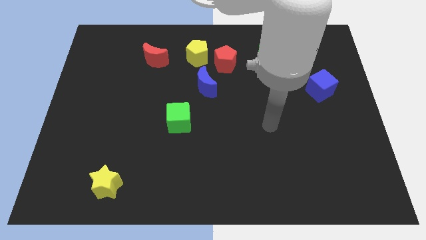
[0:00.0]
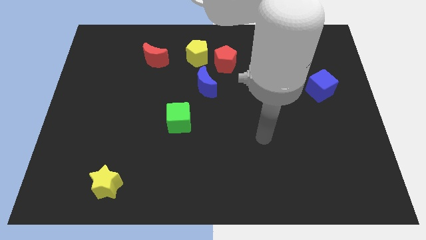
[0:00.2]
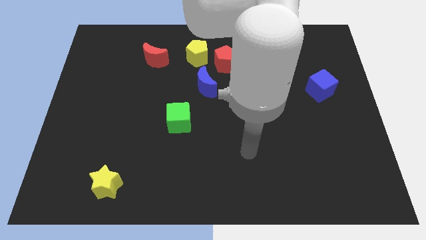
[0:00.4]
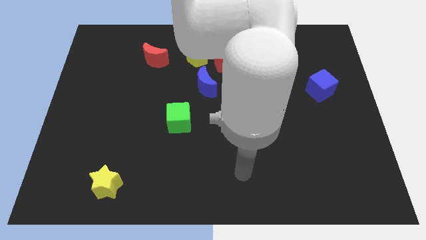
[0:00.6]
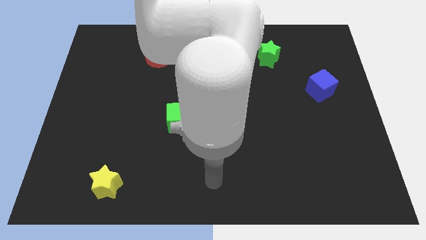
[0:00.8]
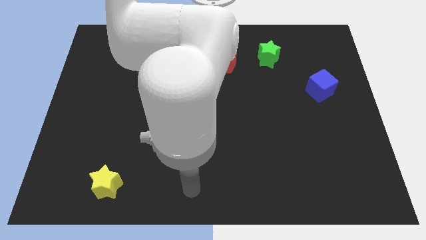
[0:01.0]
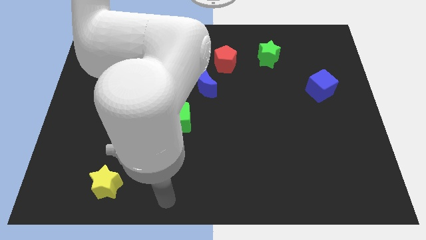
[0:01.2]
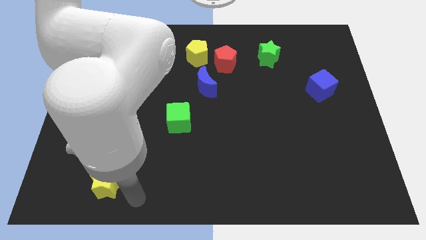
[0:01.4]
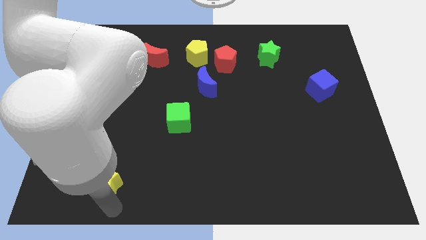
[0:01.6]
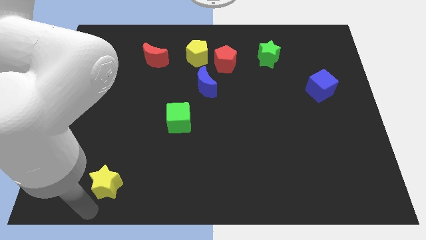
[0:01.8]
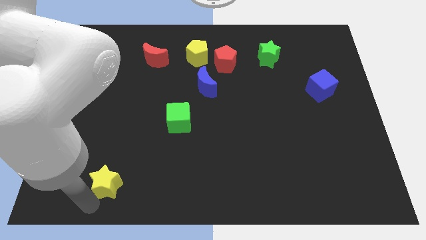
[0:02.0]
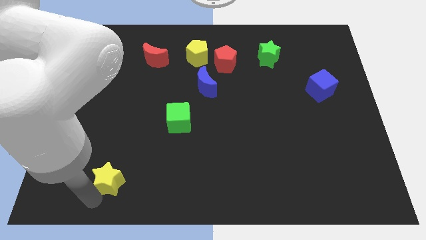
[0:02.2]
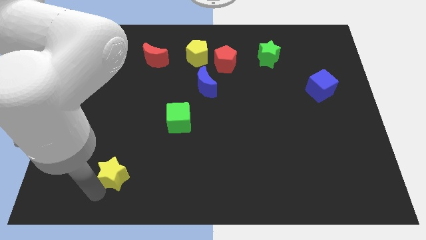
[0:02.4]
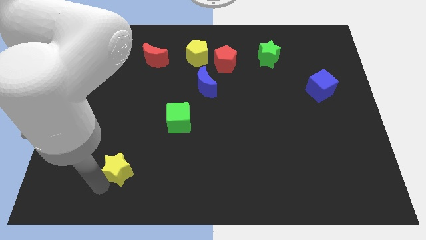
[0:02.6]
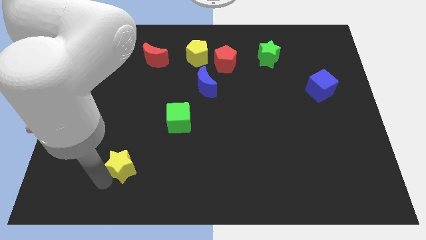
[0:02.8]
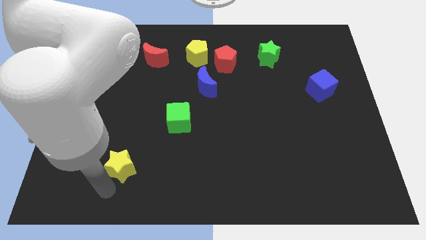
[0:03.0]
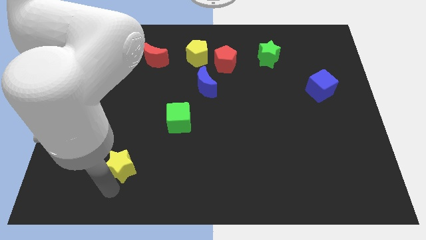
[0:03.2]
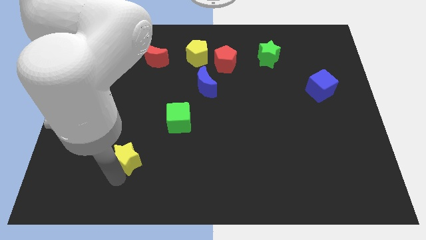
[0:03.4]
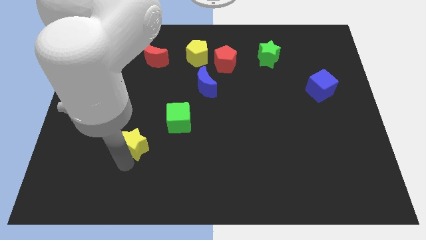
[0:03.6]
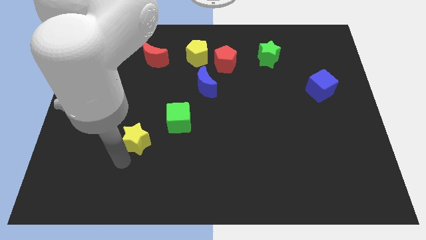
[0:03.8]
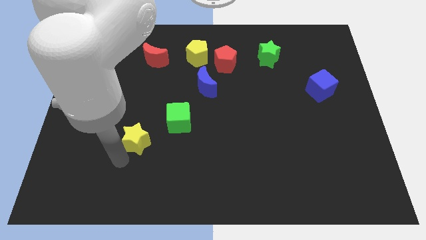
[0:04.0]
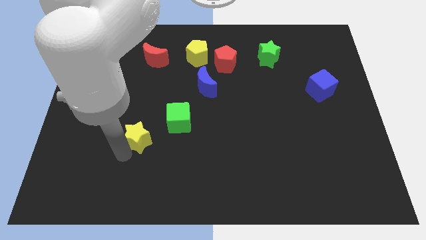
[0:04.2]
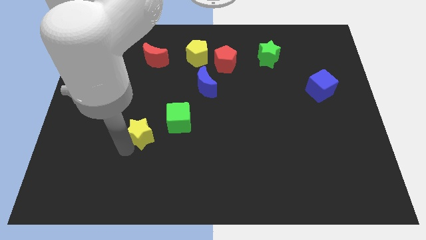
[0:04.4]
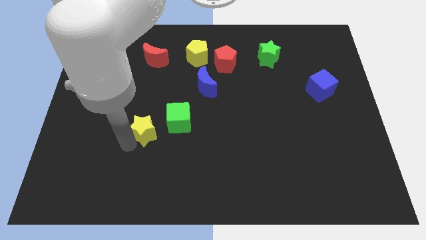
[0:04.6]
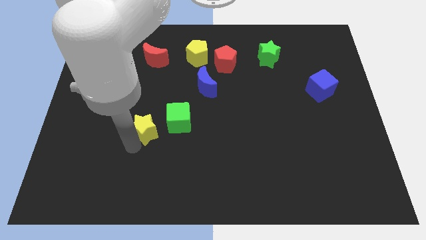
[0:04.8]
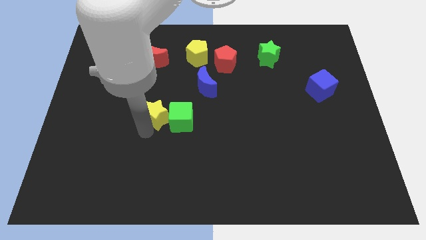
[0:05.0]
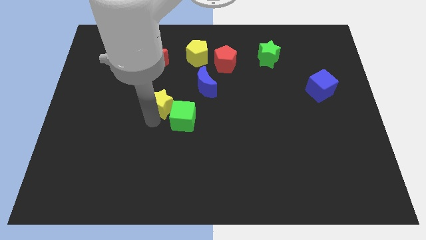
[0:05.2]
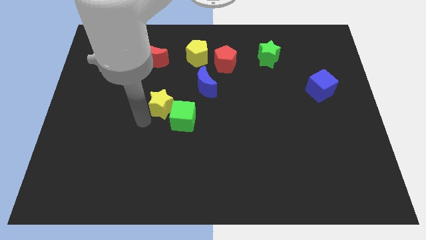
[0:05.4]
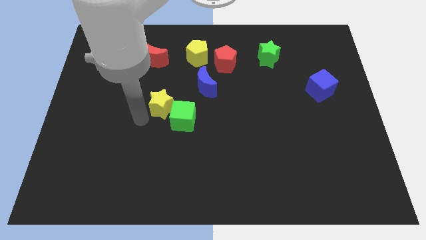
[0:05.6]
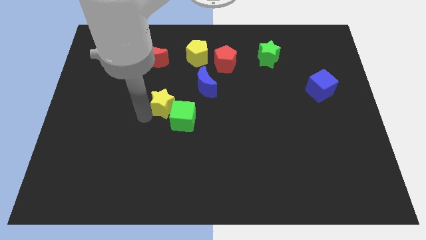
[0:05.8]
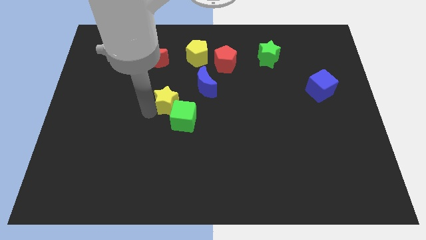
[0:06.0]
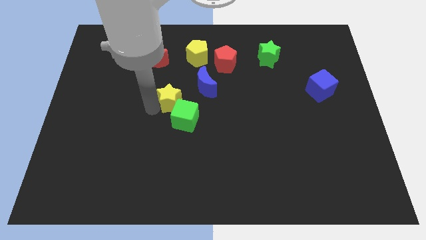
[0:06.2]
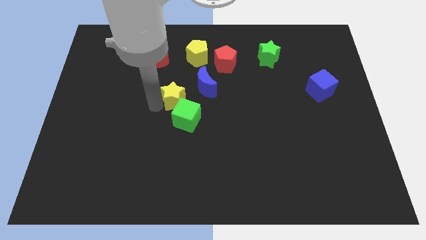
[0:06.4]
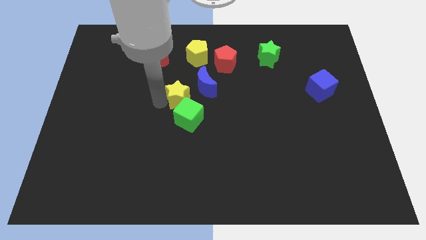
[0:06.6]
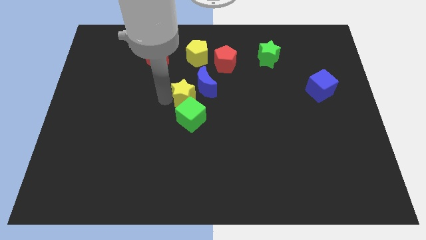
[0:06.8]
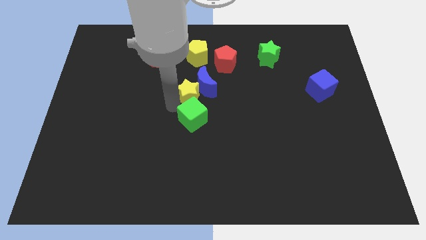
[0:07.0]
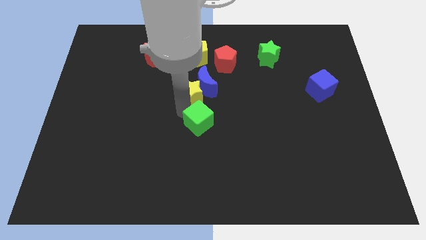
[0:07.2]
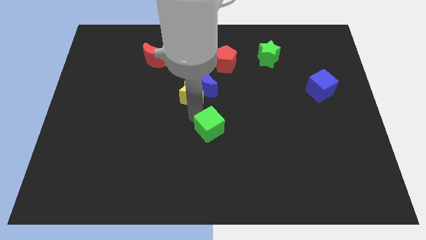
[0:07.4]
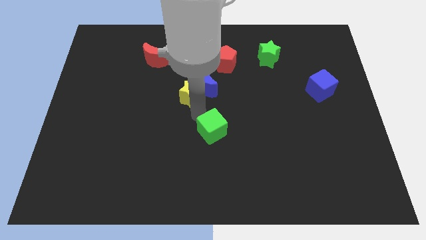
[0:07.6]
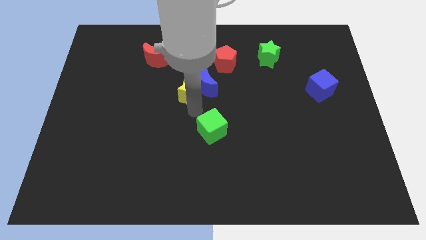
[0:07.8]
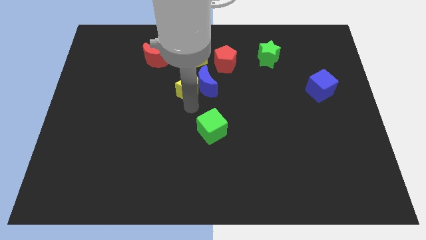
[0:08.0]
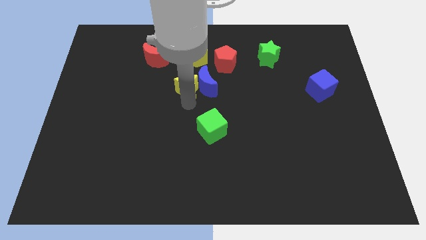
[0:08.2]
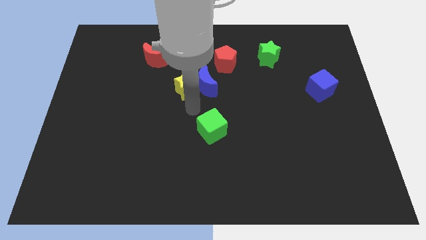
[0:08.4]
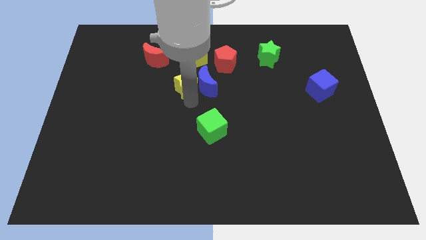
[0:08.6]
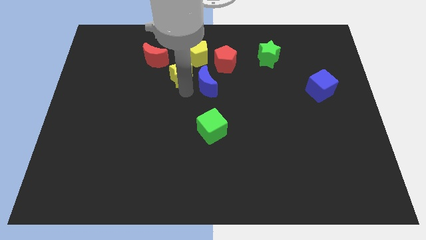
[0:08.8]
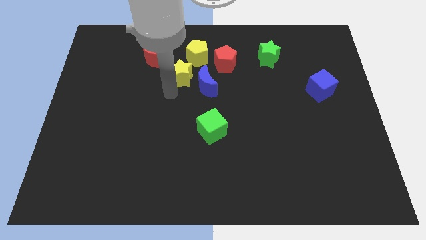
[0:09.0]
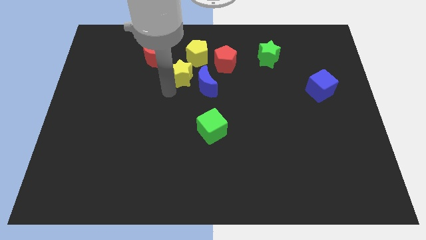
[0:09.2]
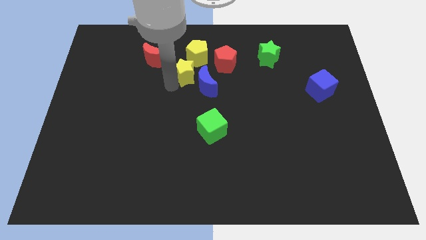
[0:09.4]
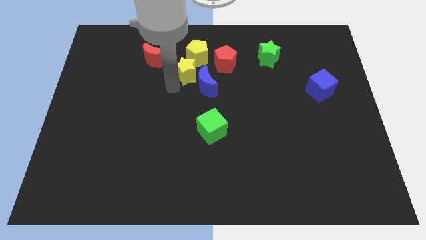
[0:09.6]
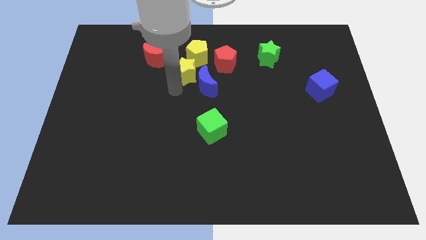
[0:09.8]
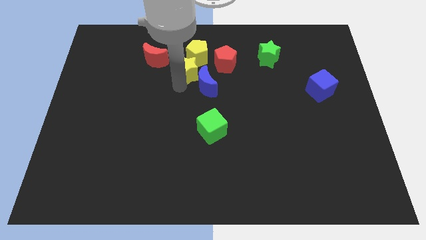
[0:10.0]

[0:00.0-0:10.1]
put the yellow star next to the yellow pentagon

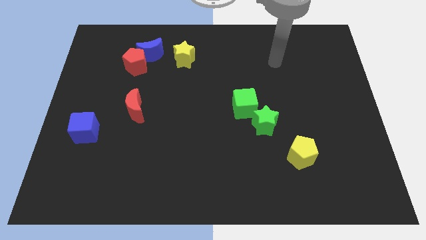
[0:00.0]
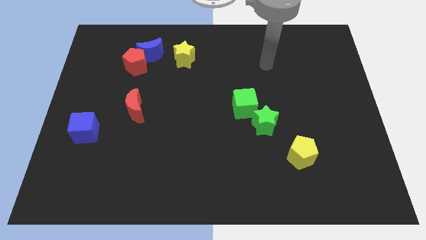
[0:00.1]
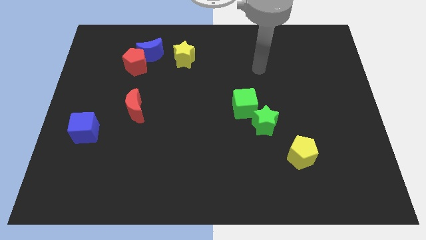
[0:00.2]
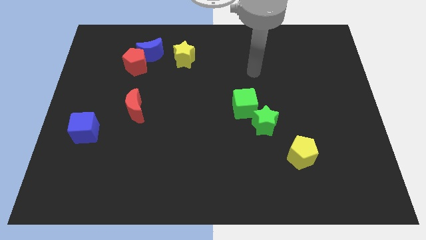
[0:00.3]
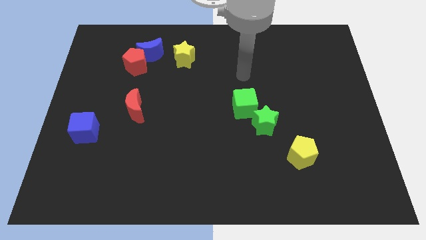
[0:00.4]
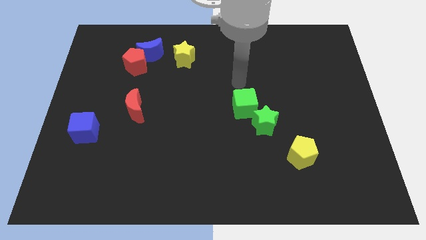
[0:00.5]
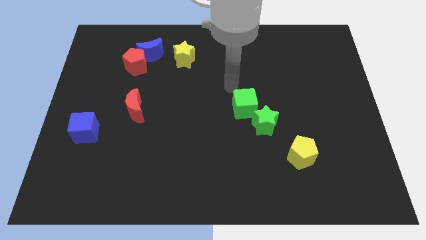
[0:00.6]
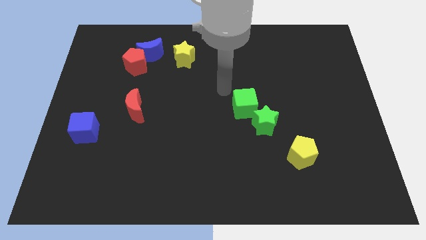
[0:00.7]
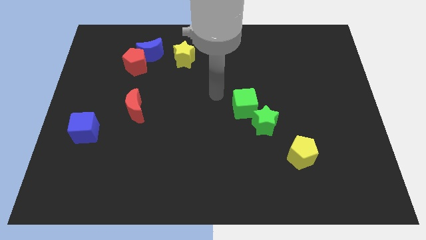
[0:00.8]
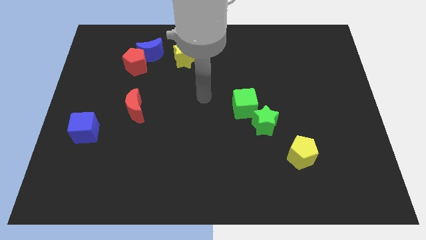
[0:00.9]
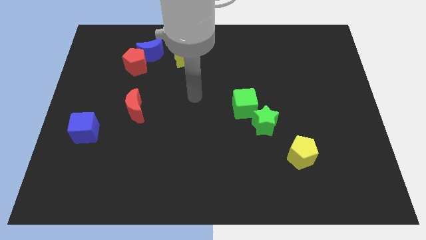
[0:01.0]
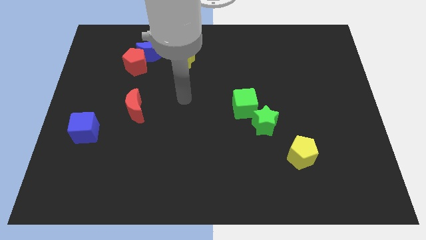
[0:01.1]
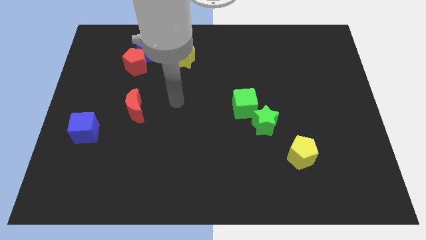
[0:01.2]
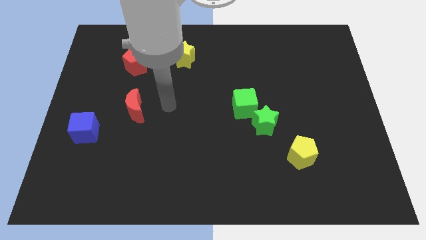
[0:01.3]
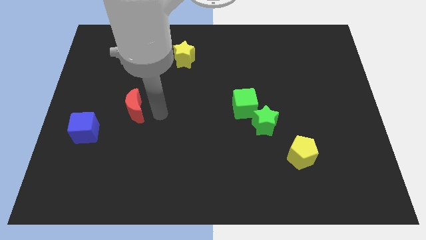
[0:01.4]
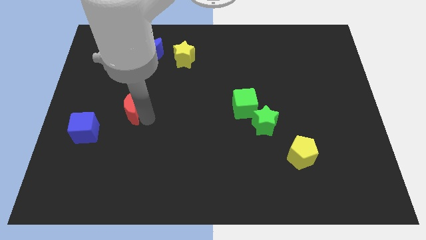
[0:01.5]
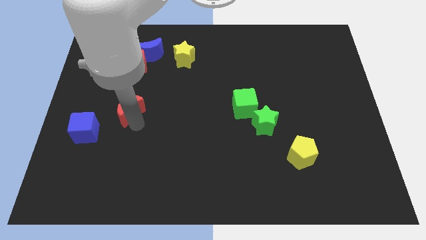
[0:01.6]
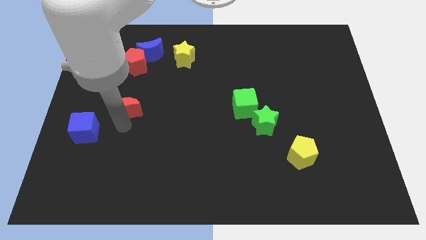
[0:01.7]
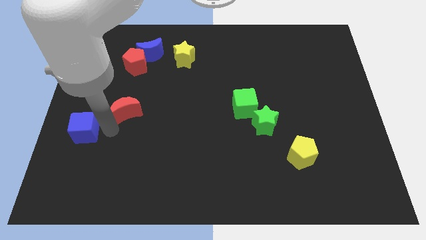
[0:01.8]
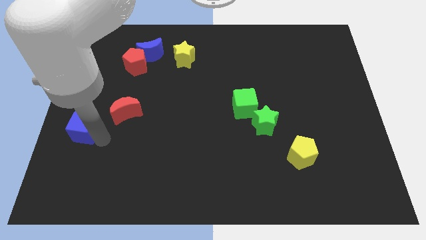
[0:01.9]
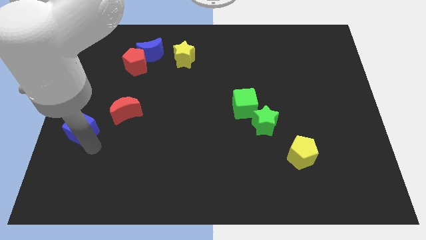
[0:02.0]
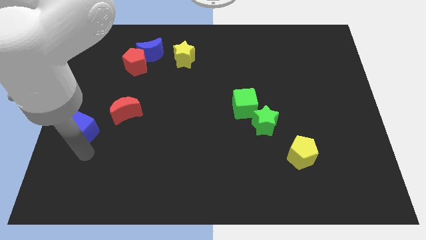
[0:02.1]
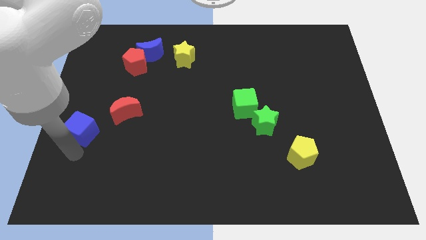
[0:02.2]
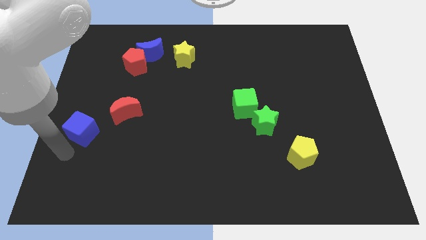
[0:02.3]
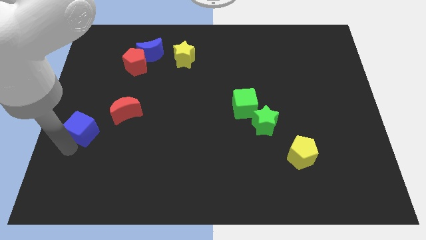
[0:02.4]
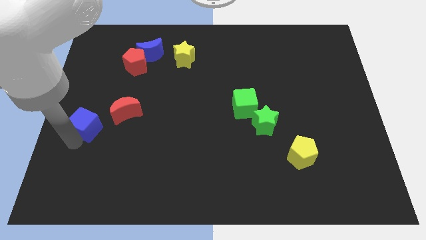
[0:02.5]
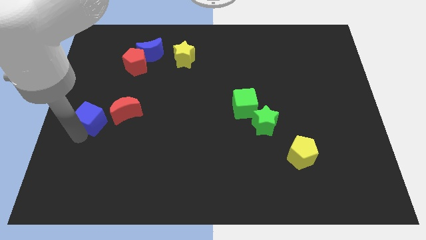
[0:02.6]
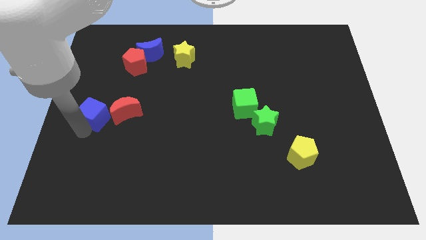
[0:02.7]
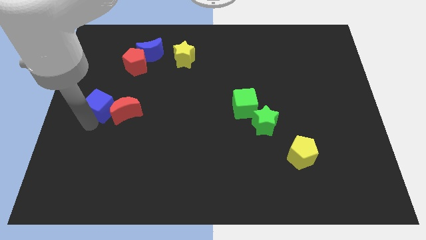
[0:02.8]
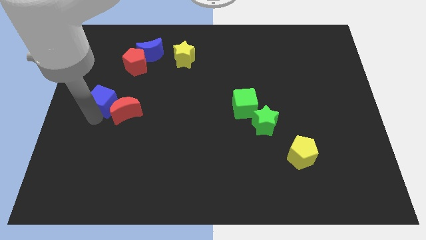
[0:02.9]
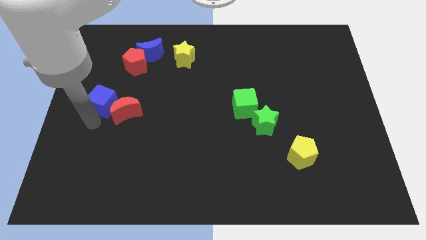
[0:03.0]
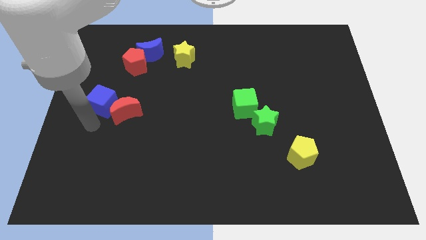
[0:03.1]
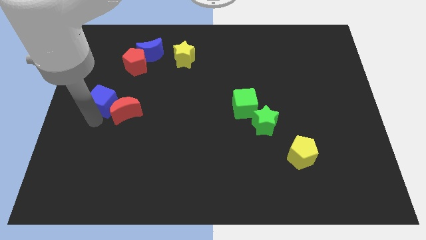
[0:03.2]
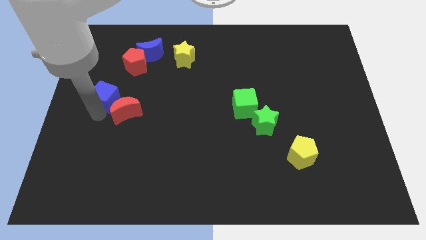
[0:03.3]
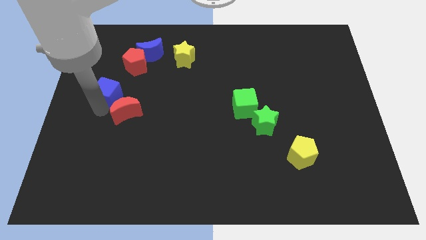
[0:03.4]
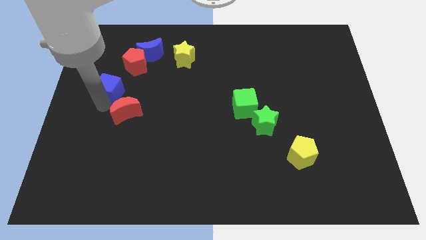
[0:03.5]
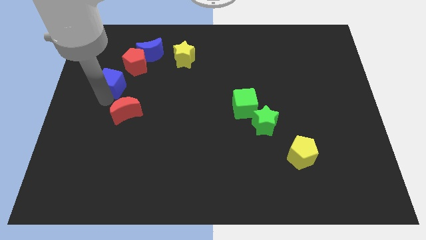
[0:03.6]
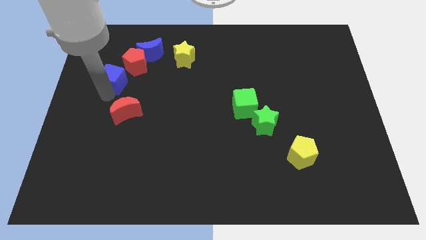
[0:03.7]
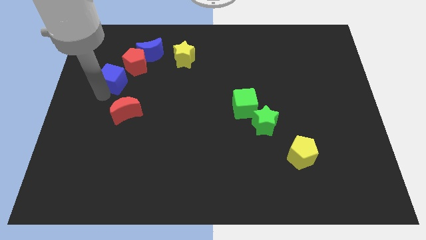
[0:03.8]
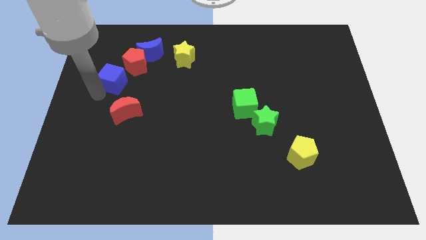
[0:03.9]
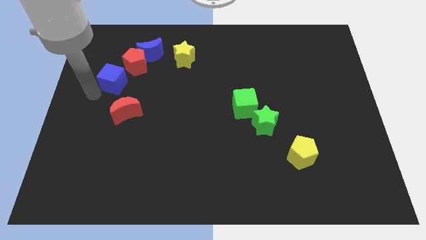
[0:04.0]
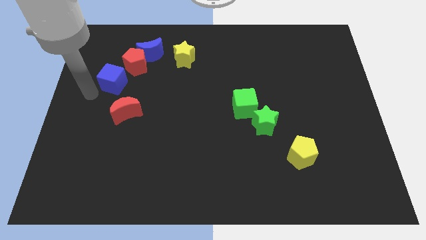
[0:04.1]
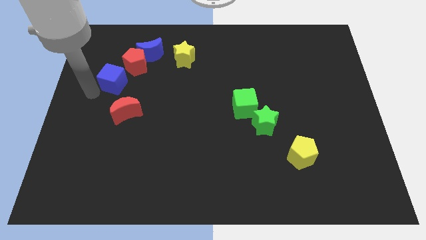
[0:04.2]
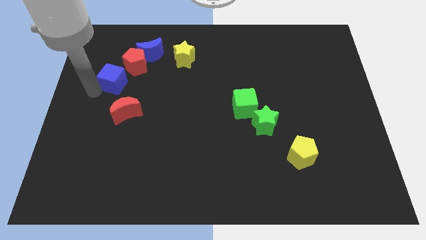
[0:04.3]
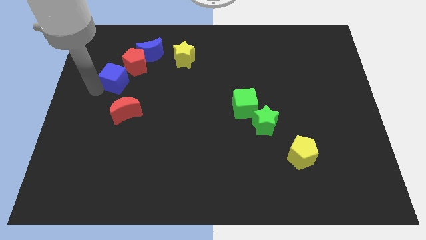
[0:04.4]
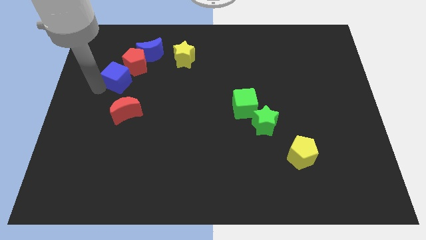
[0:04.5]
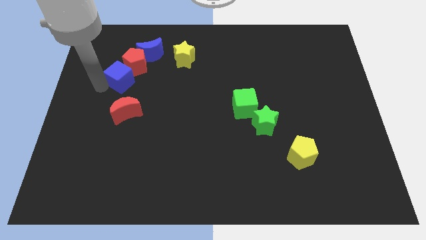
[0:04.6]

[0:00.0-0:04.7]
move the blue cube next to the red pentagon
